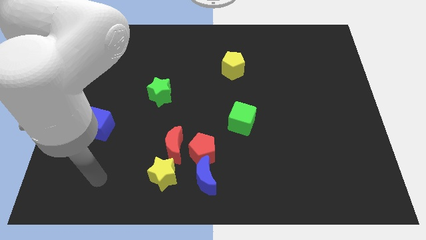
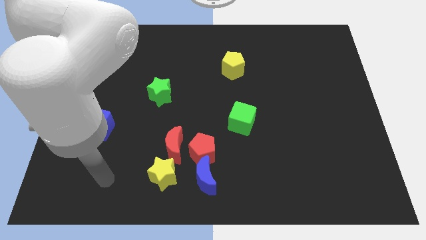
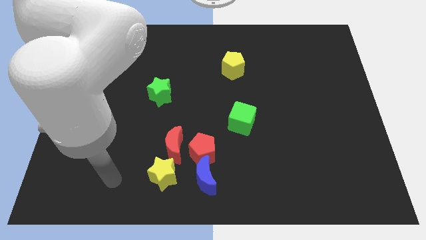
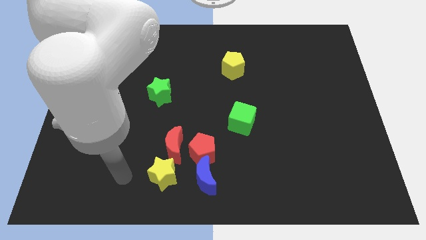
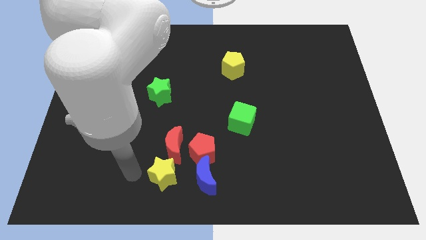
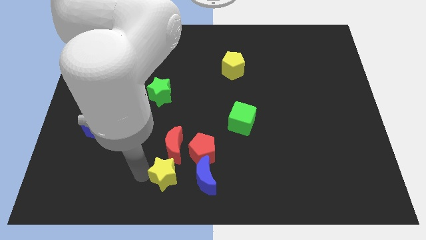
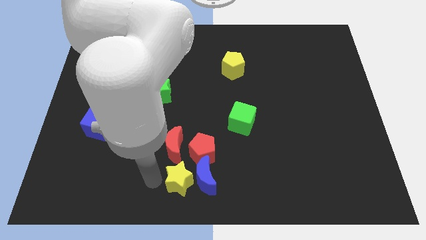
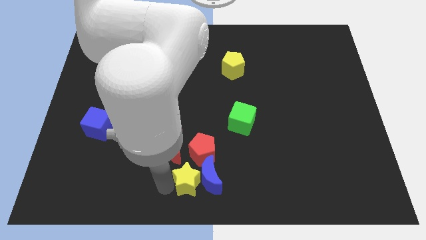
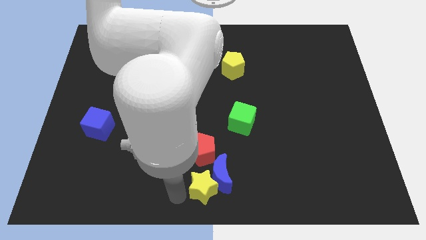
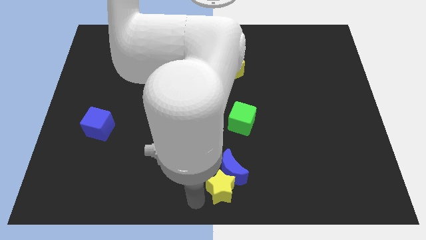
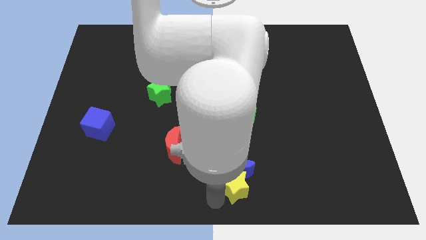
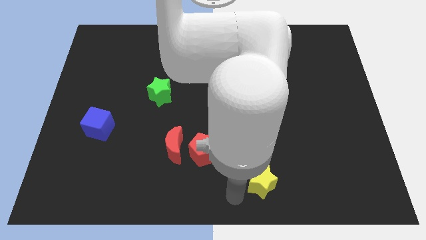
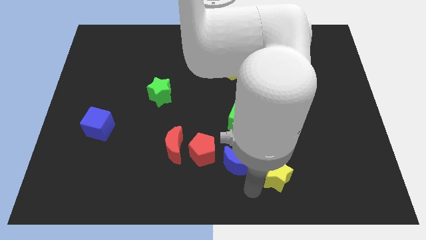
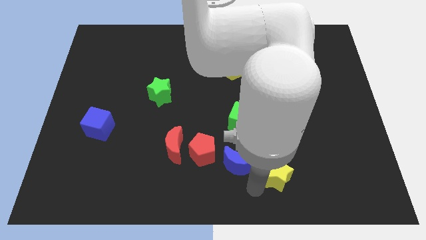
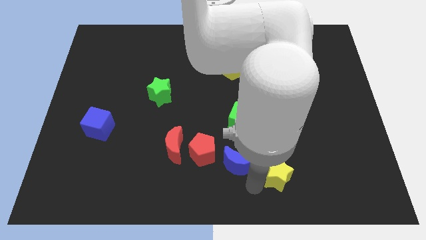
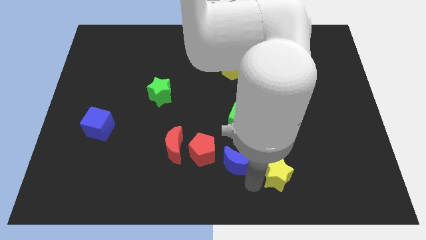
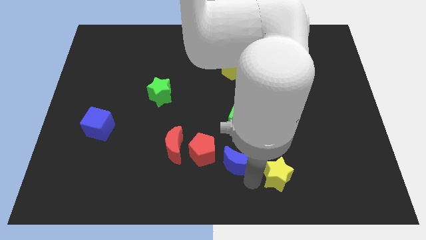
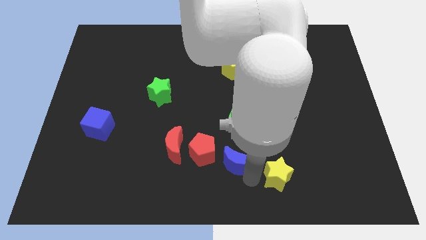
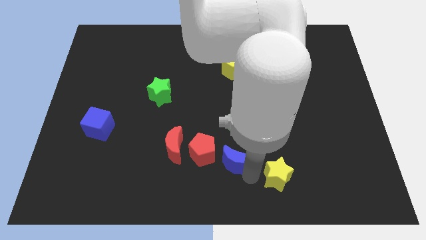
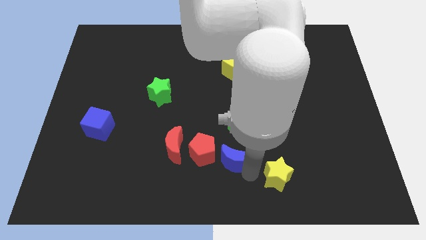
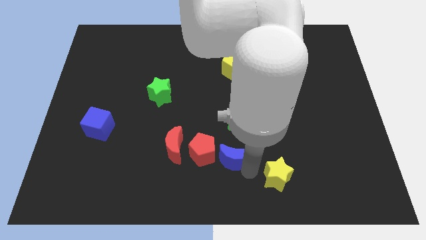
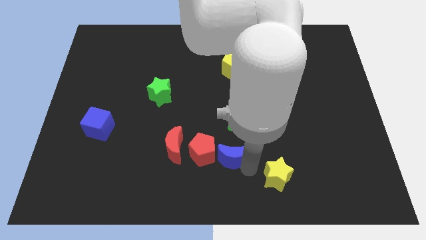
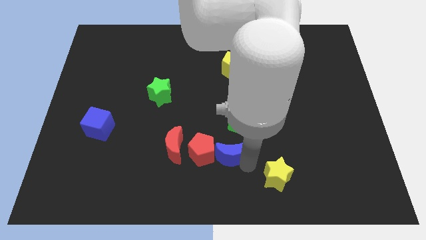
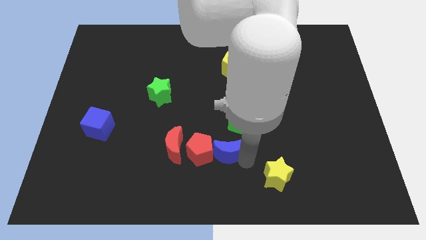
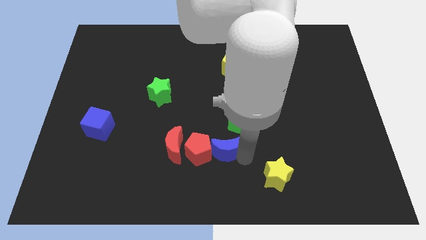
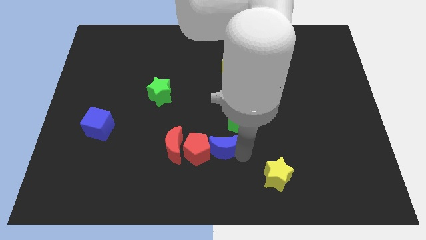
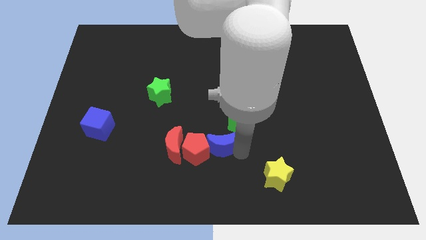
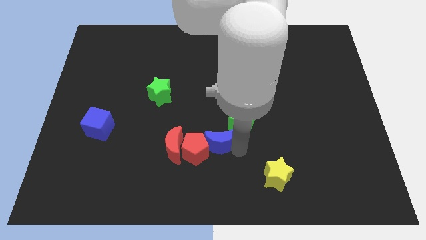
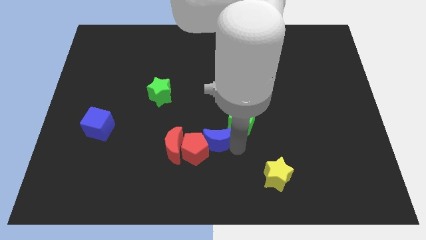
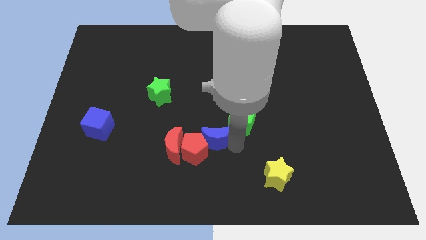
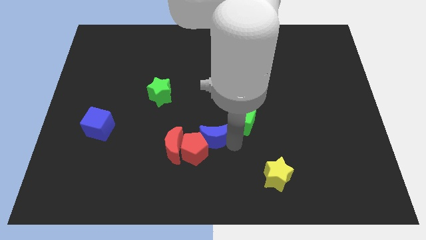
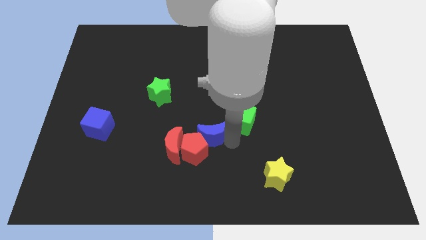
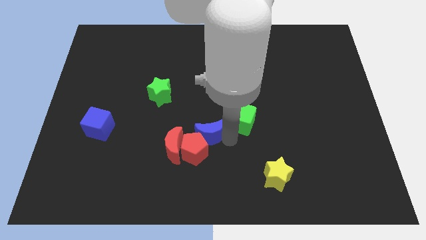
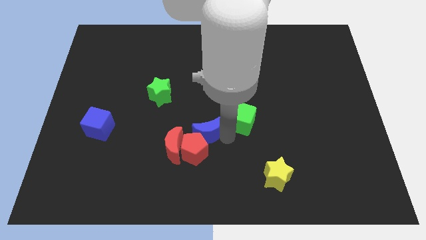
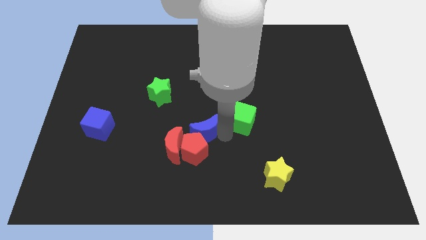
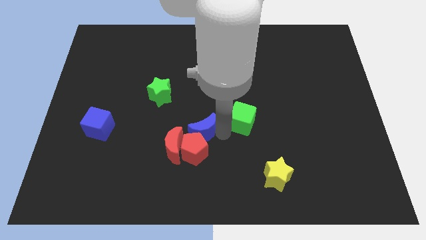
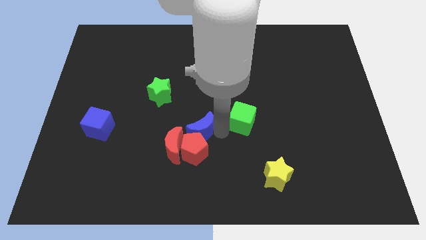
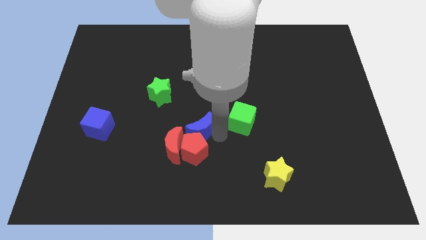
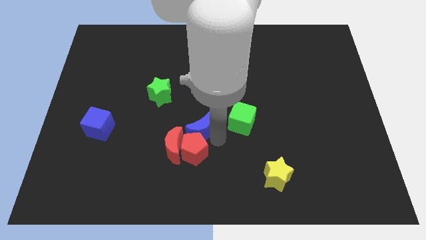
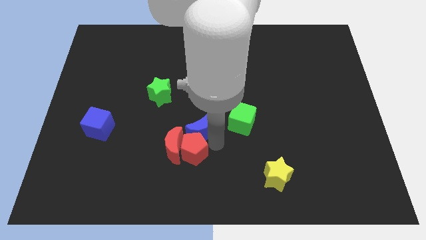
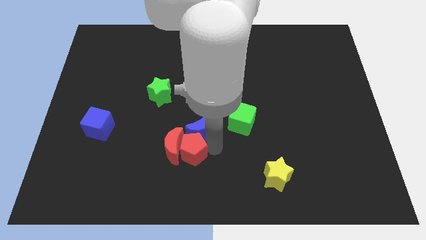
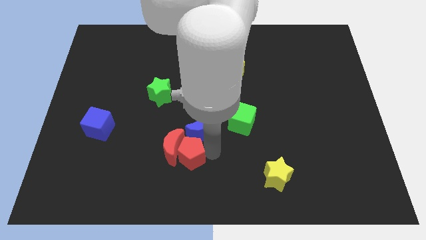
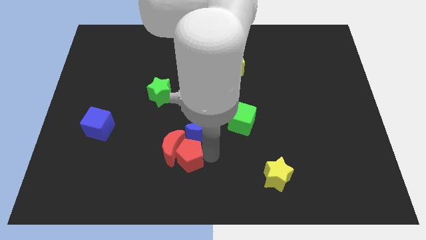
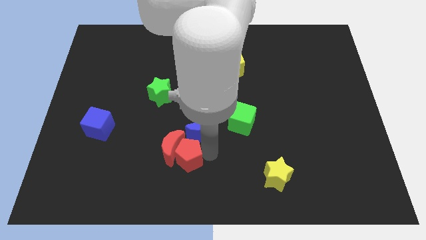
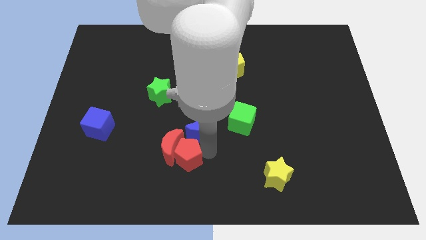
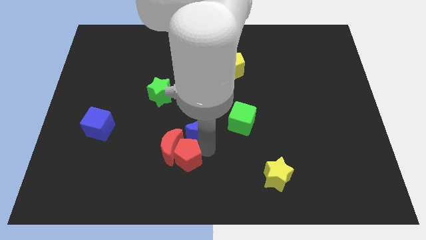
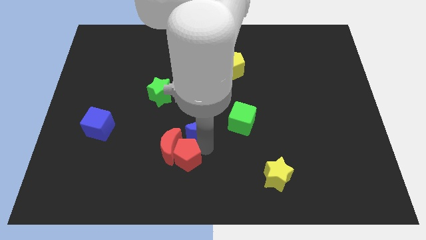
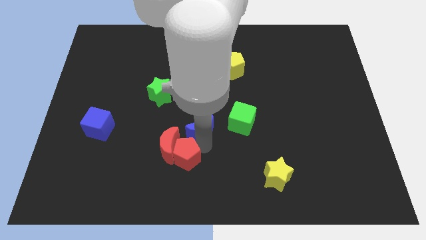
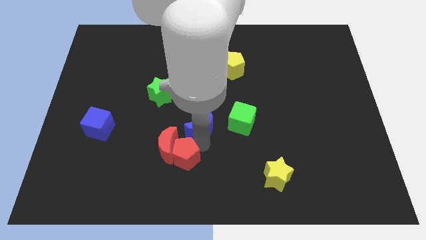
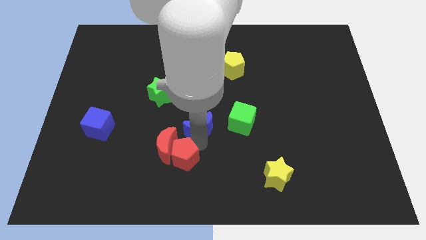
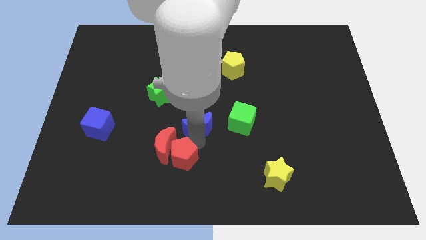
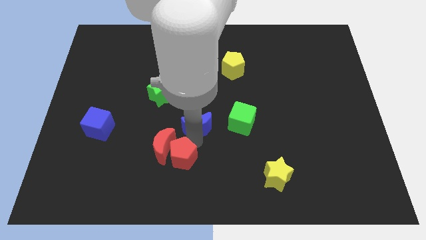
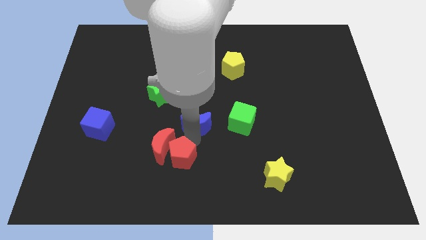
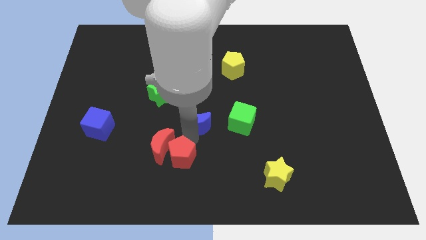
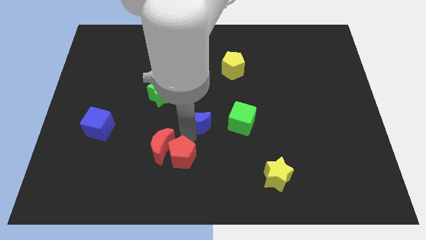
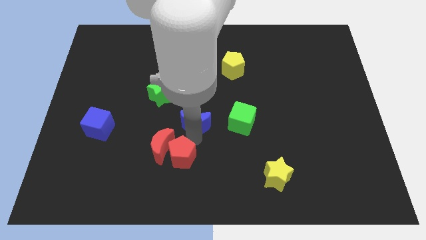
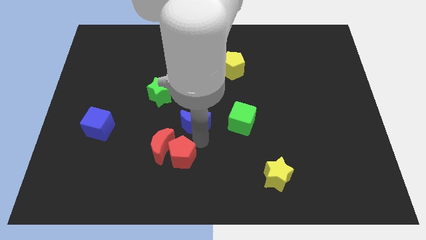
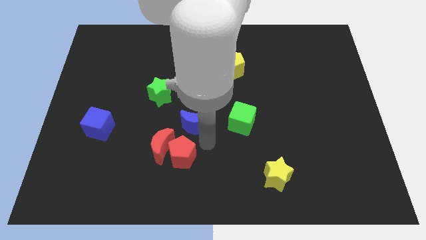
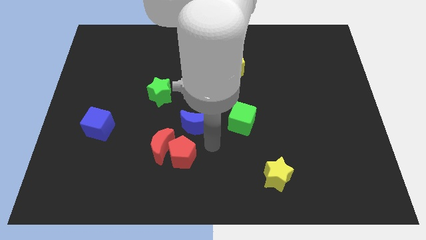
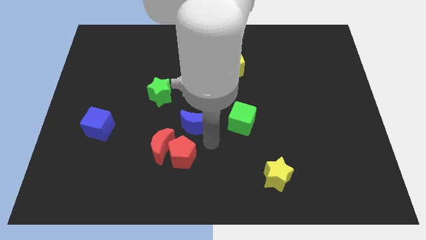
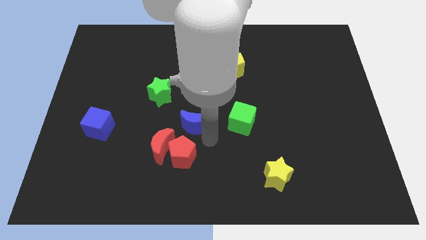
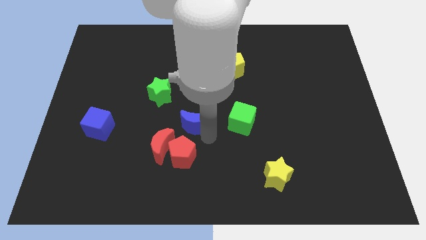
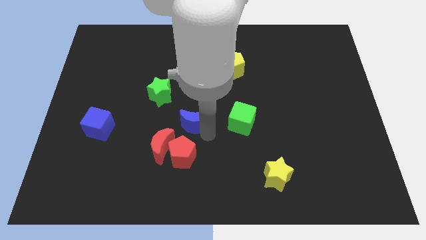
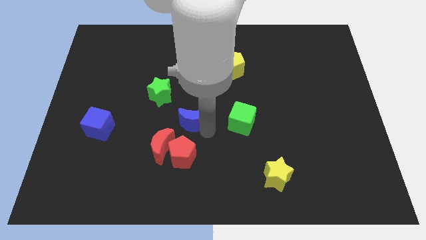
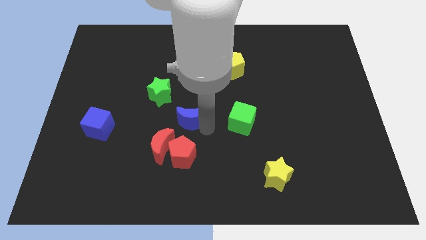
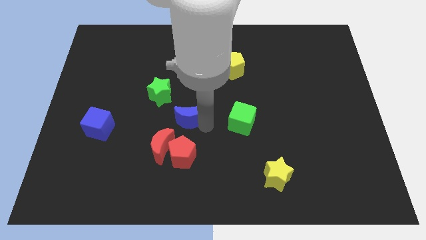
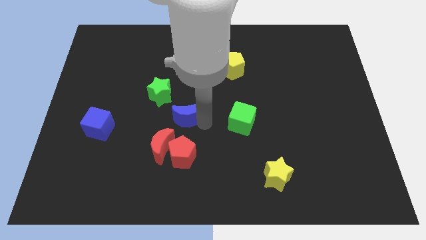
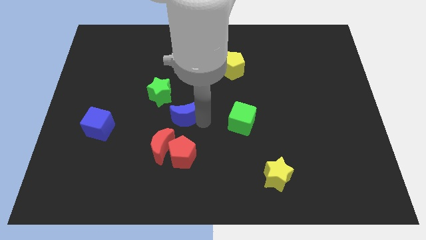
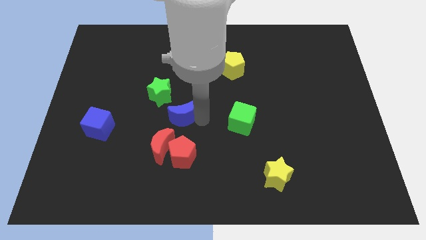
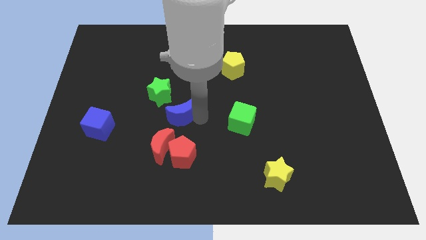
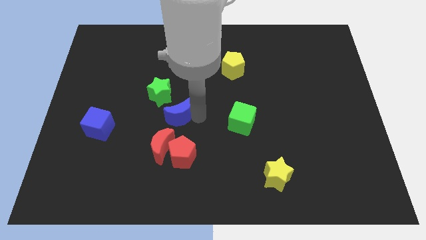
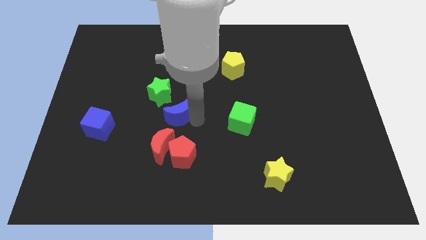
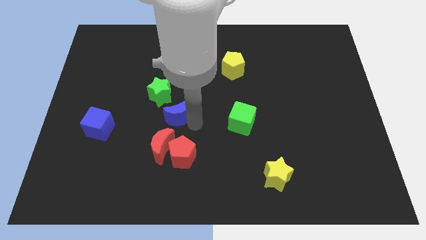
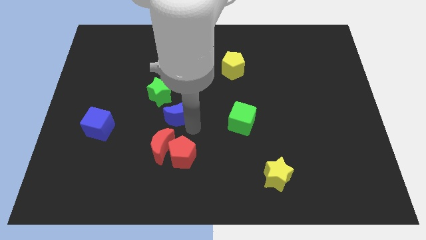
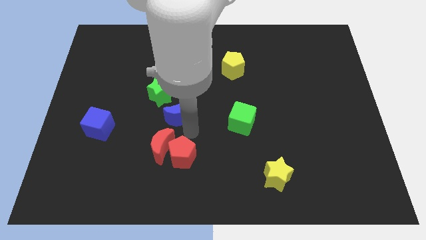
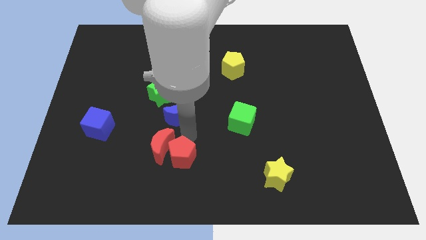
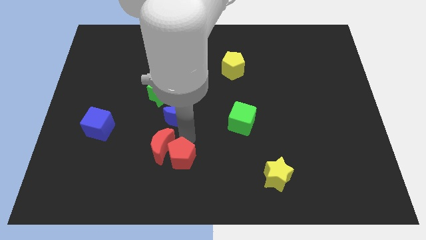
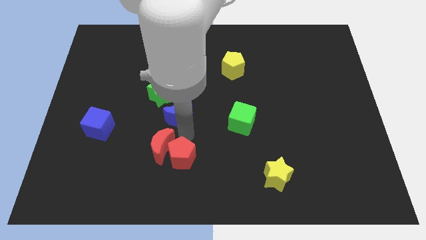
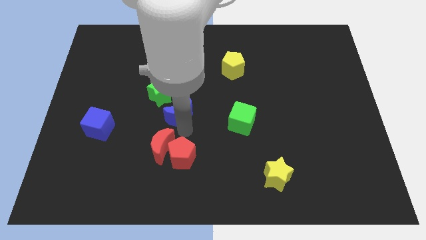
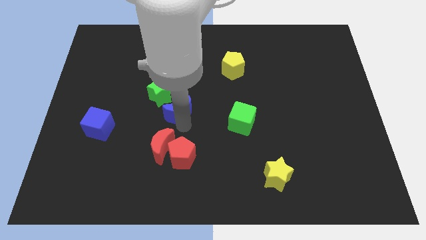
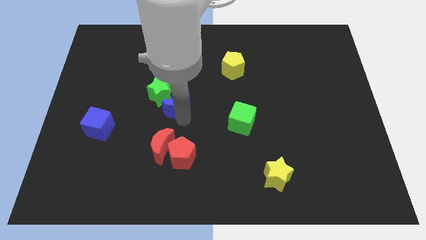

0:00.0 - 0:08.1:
push the blue moon towards the green star
